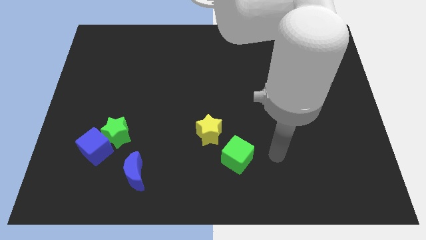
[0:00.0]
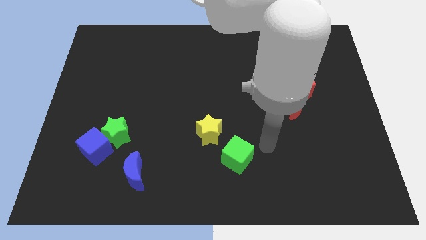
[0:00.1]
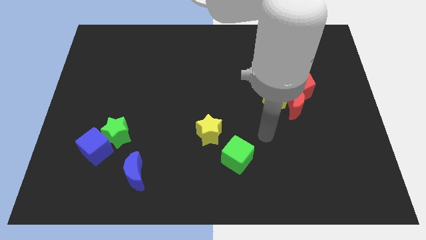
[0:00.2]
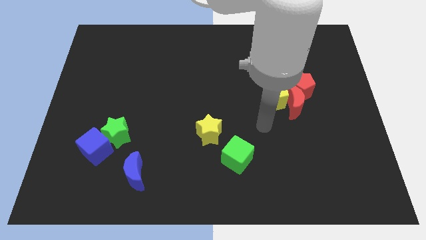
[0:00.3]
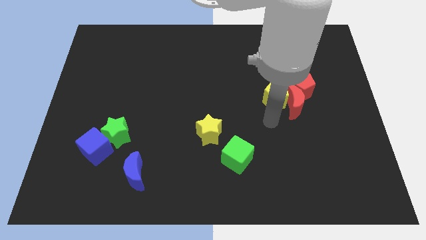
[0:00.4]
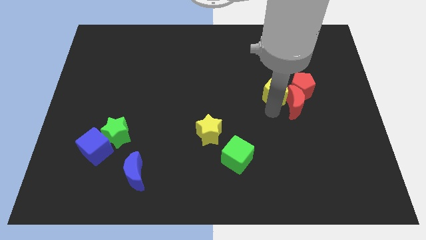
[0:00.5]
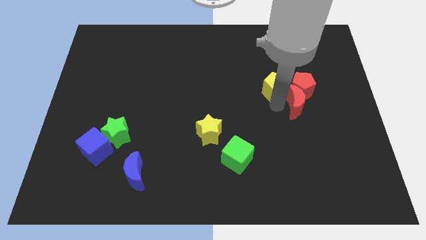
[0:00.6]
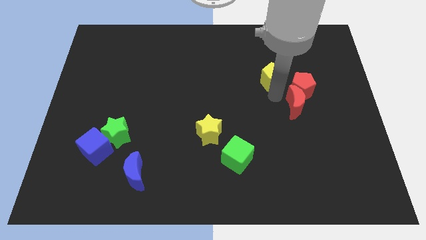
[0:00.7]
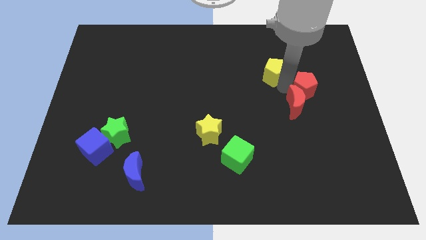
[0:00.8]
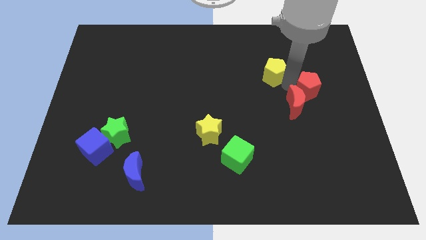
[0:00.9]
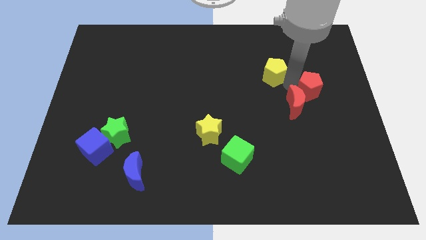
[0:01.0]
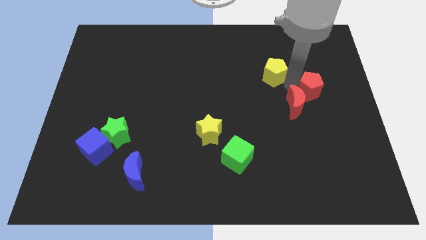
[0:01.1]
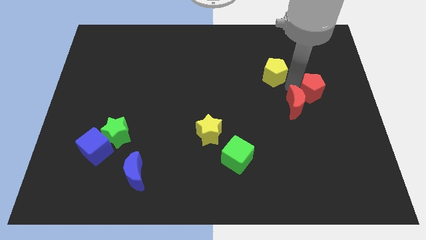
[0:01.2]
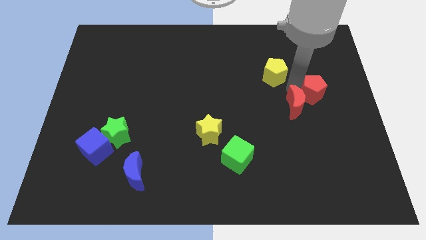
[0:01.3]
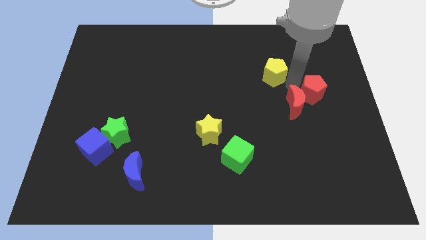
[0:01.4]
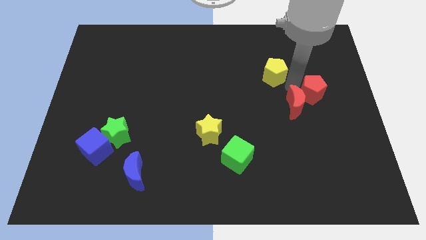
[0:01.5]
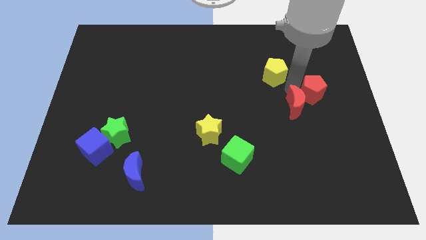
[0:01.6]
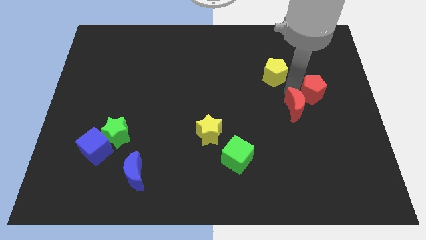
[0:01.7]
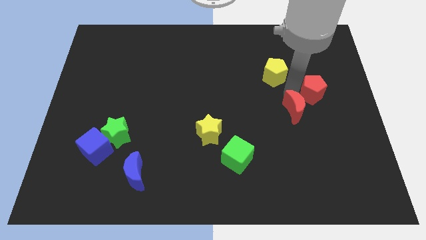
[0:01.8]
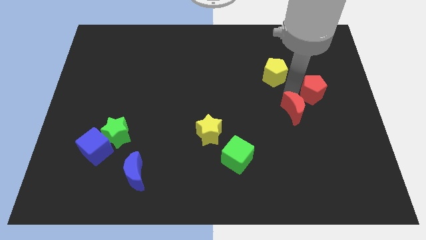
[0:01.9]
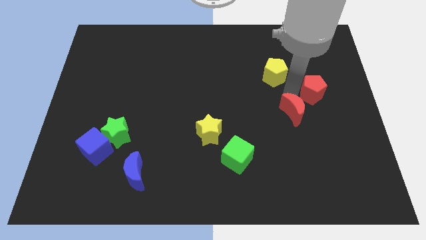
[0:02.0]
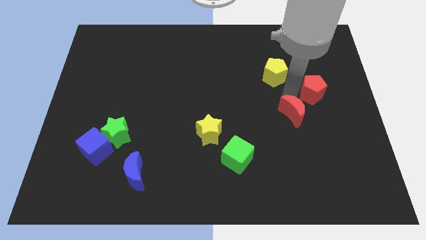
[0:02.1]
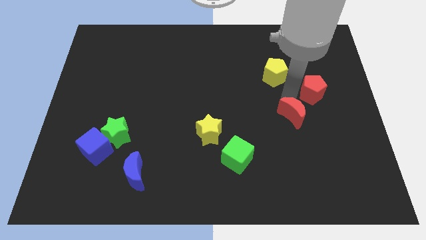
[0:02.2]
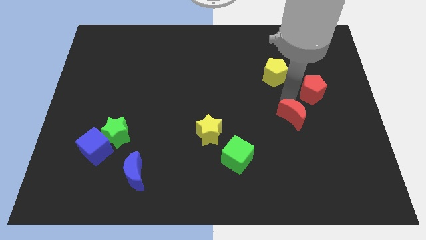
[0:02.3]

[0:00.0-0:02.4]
move the red moon away from the yellow pentagon and red pentagon

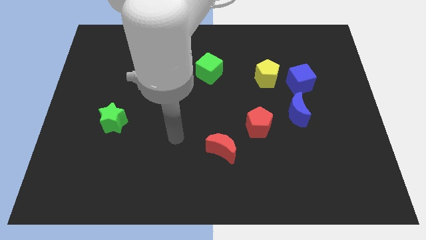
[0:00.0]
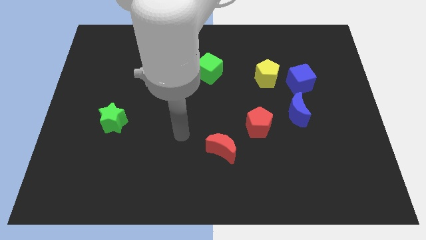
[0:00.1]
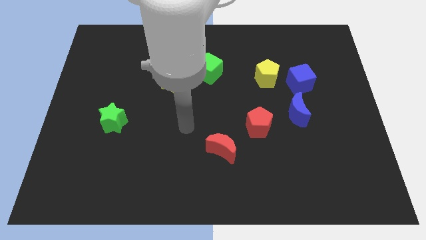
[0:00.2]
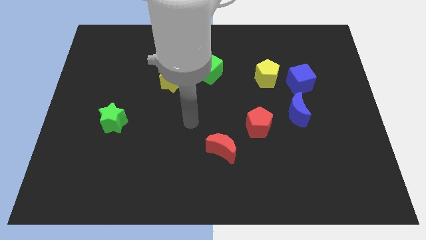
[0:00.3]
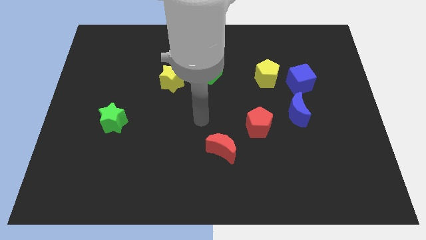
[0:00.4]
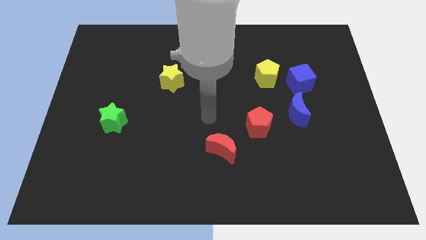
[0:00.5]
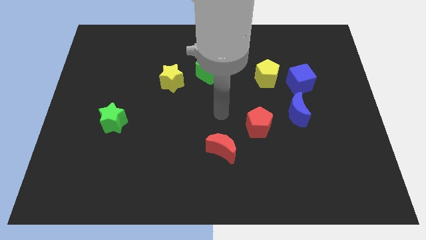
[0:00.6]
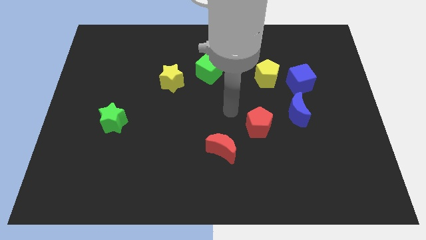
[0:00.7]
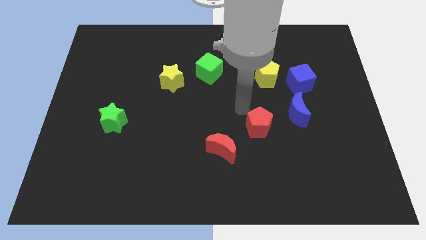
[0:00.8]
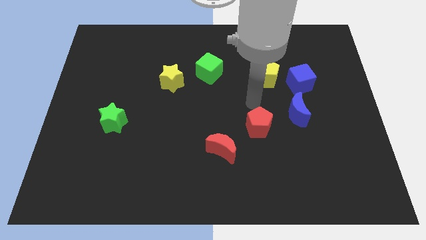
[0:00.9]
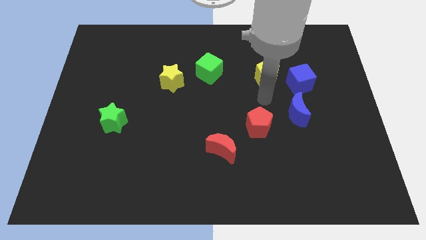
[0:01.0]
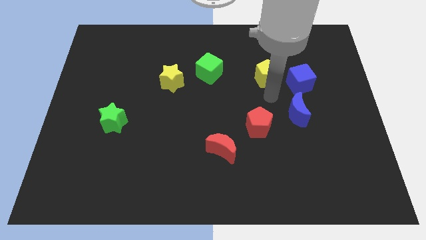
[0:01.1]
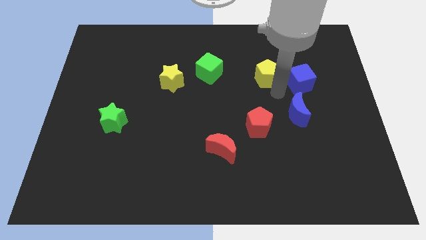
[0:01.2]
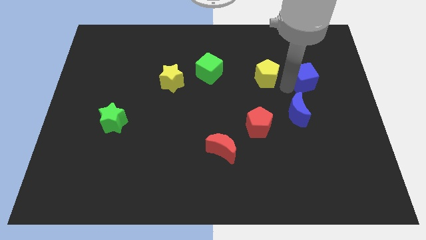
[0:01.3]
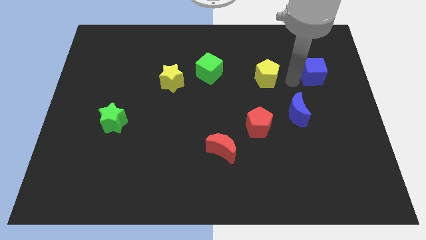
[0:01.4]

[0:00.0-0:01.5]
separate the yellow pentagon from the blue cube

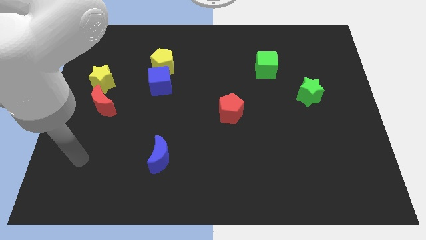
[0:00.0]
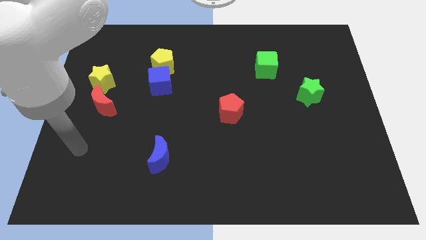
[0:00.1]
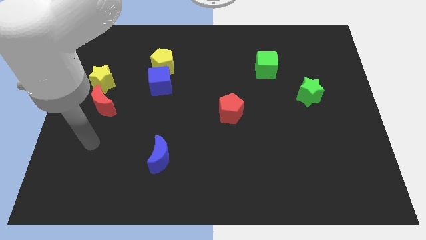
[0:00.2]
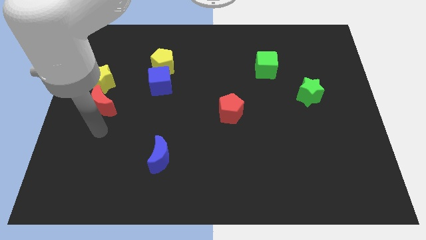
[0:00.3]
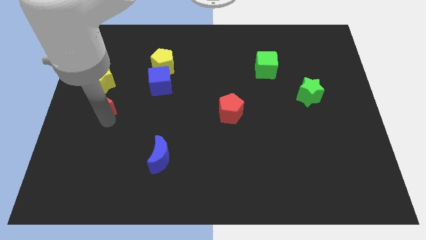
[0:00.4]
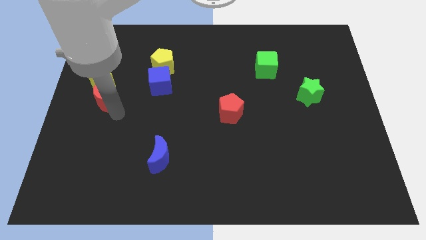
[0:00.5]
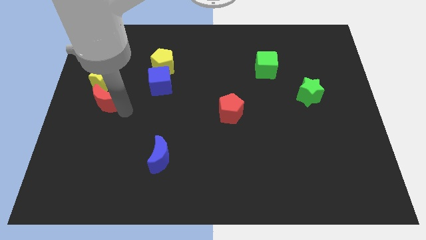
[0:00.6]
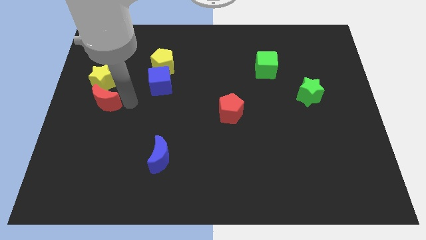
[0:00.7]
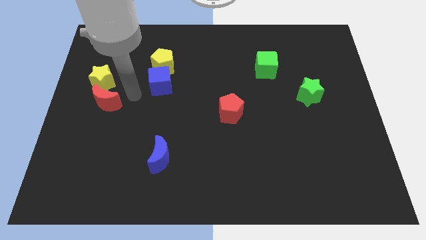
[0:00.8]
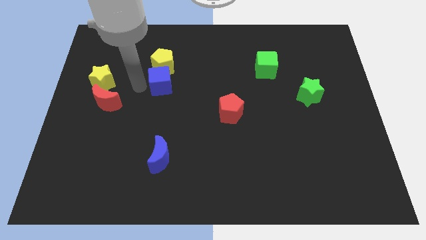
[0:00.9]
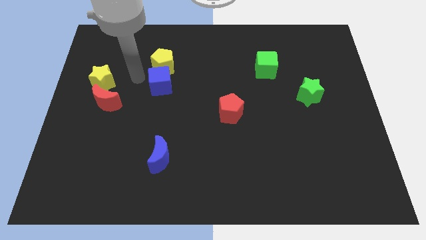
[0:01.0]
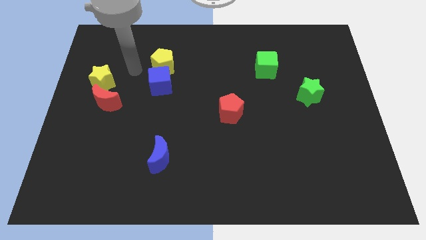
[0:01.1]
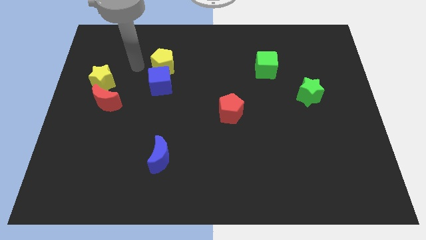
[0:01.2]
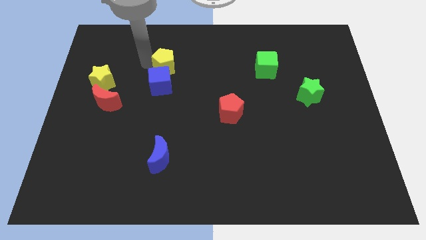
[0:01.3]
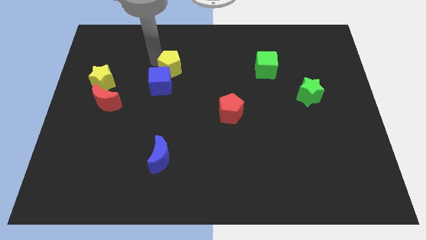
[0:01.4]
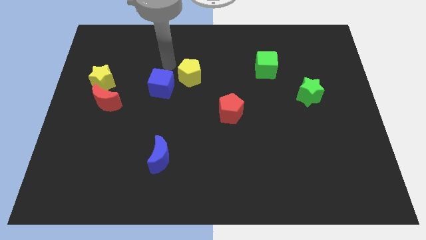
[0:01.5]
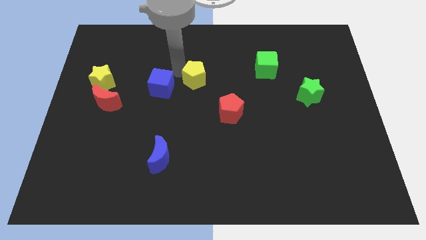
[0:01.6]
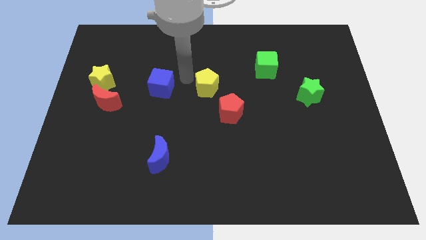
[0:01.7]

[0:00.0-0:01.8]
pull the blue cube apart from the yellow pentagon

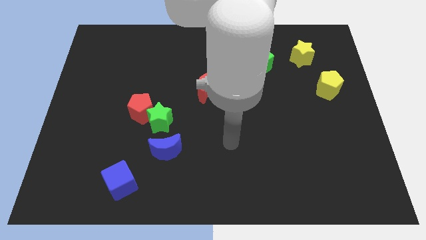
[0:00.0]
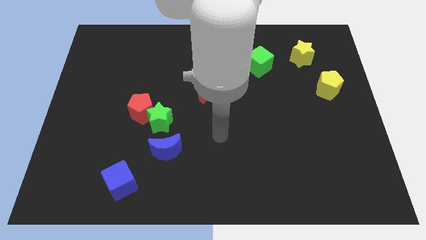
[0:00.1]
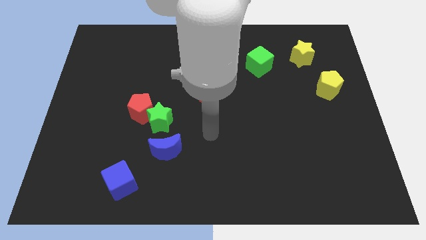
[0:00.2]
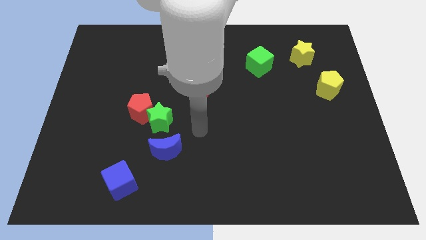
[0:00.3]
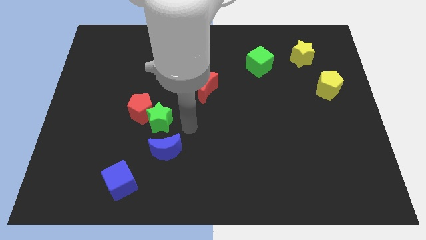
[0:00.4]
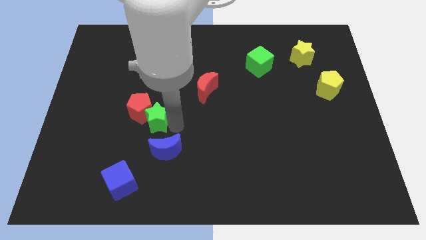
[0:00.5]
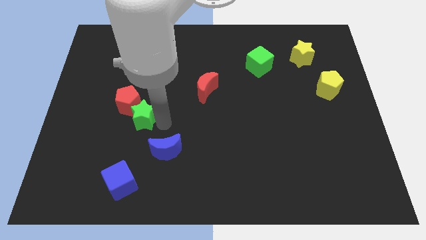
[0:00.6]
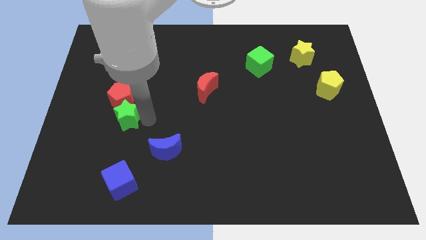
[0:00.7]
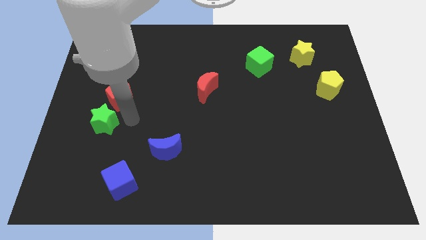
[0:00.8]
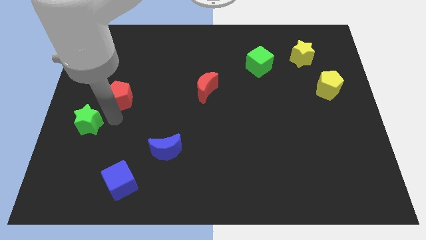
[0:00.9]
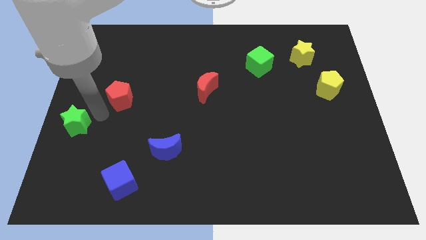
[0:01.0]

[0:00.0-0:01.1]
move the red pentagon away from the green star

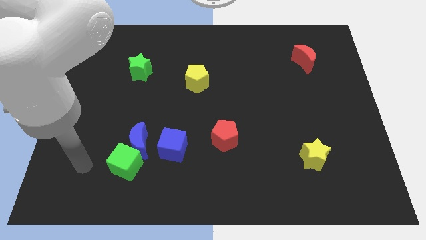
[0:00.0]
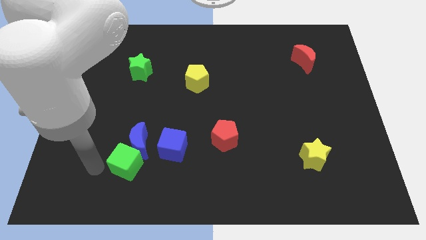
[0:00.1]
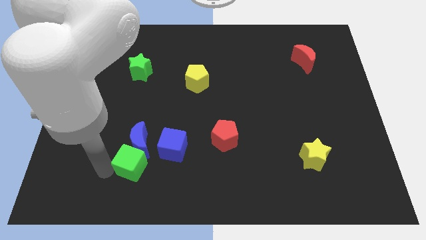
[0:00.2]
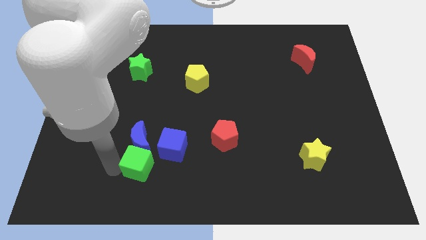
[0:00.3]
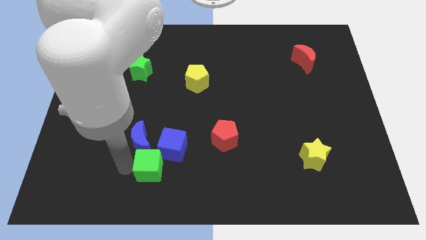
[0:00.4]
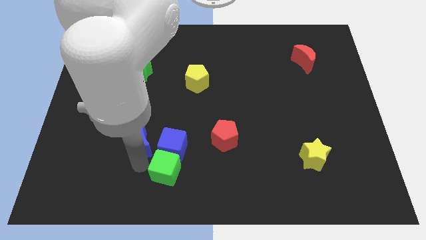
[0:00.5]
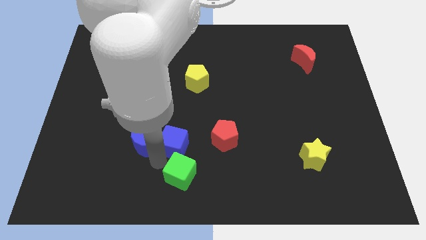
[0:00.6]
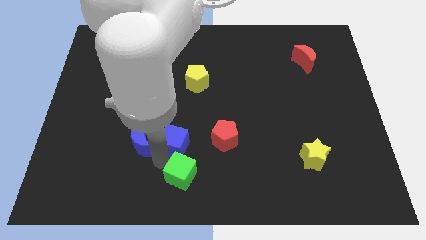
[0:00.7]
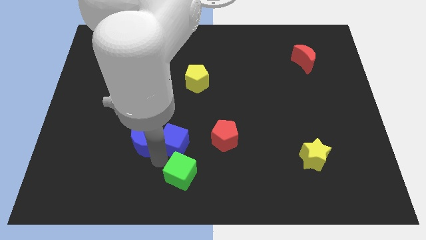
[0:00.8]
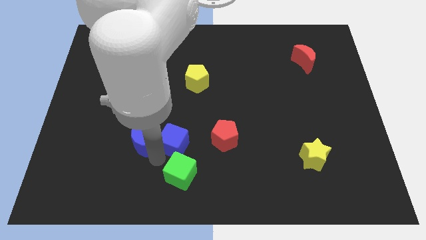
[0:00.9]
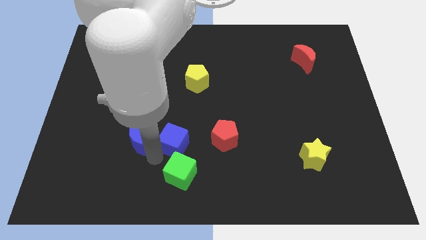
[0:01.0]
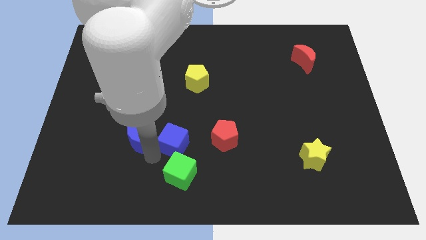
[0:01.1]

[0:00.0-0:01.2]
move the blue moon away from the green cube and blue cube

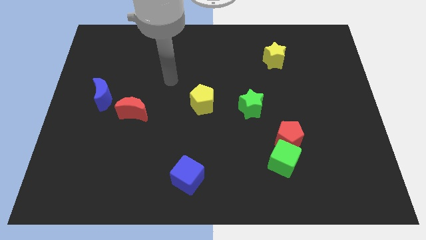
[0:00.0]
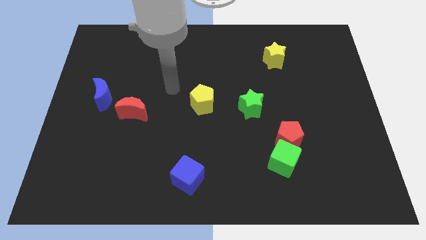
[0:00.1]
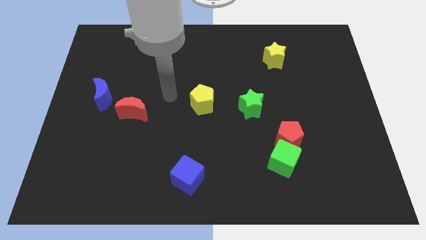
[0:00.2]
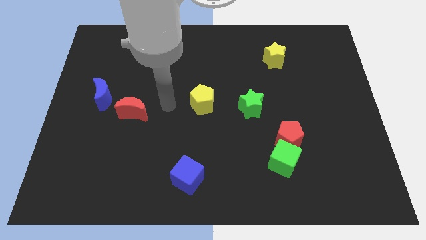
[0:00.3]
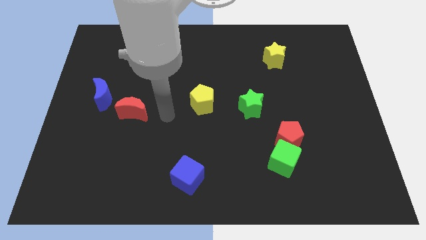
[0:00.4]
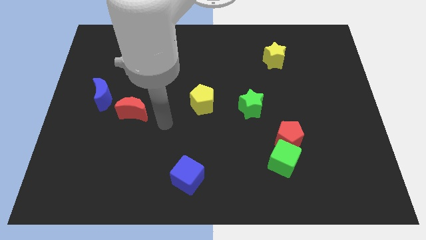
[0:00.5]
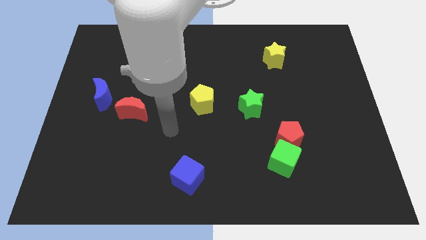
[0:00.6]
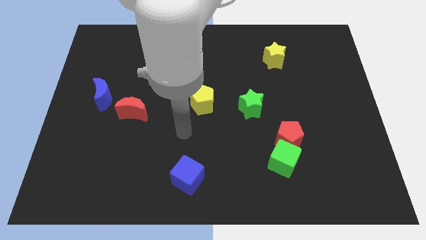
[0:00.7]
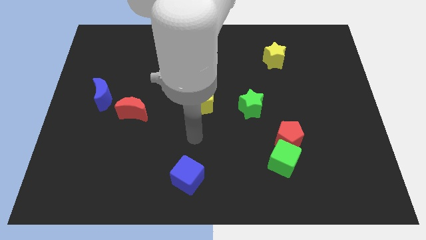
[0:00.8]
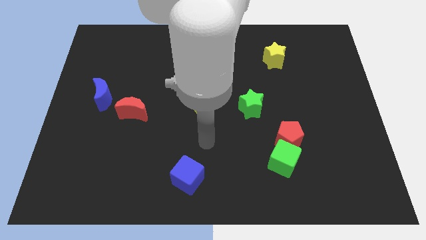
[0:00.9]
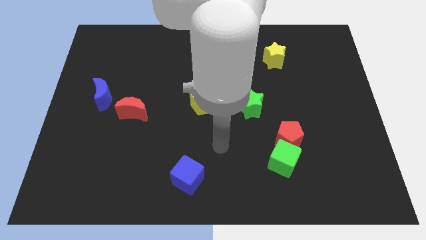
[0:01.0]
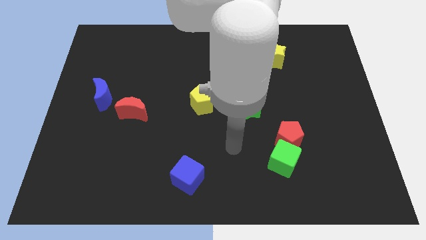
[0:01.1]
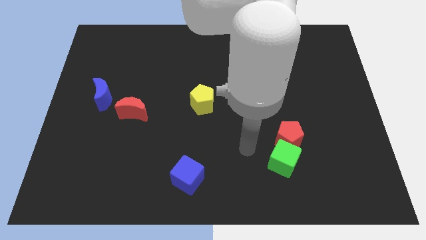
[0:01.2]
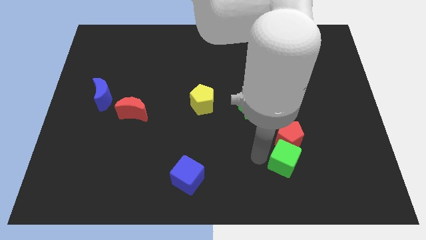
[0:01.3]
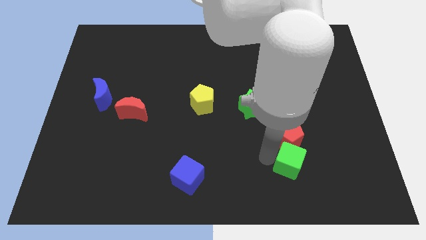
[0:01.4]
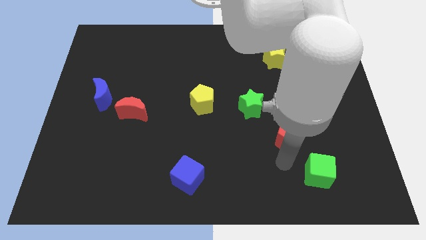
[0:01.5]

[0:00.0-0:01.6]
pull the red pentagon apart from the green cube
